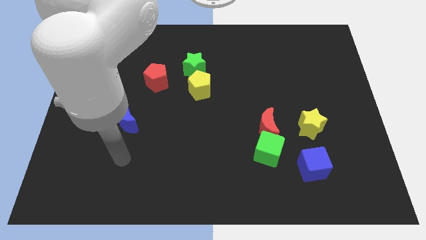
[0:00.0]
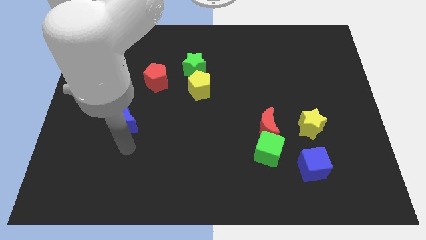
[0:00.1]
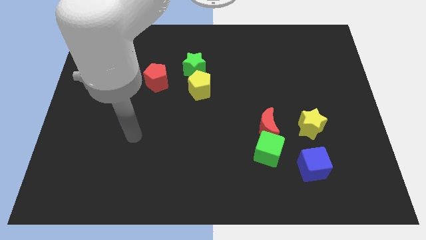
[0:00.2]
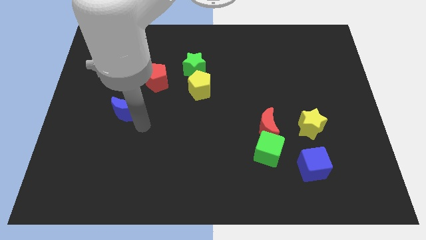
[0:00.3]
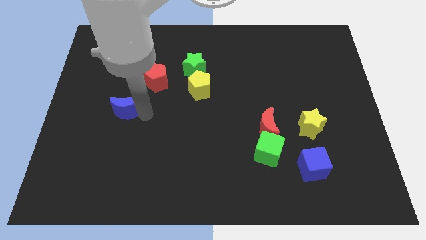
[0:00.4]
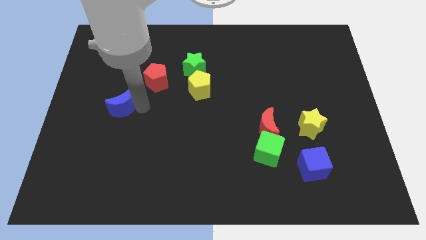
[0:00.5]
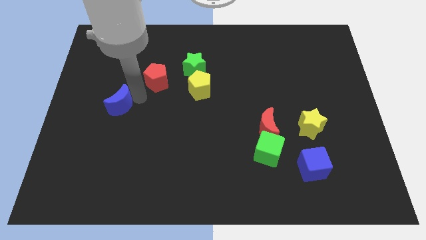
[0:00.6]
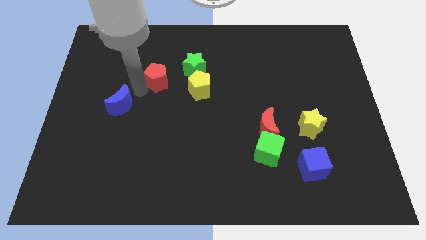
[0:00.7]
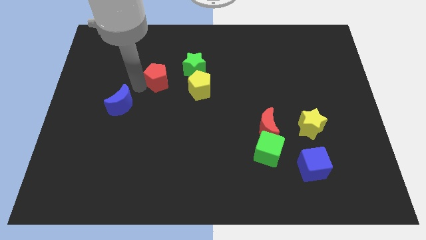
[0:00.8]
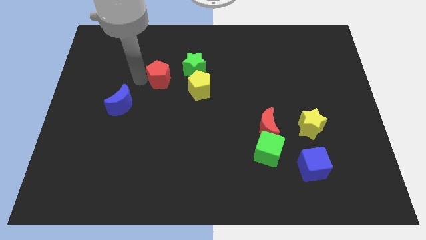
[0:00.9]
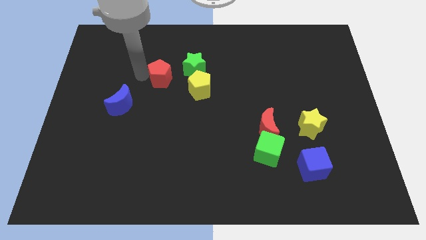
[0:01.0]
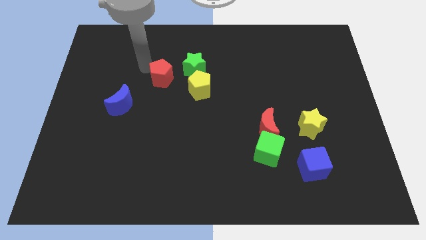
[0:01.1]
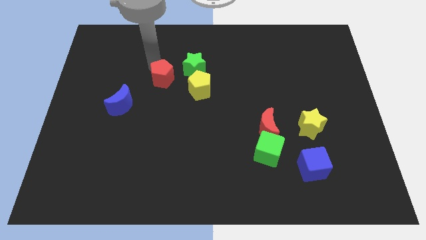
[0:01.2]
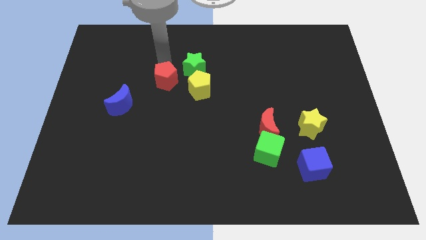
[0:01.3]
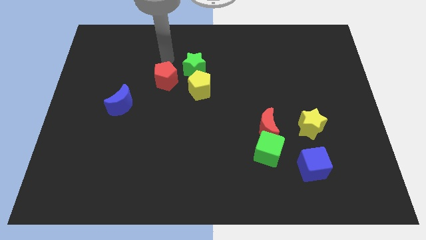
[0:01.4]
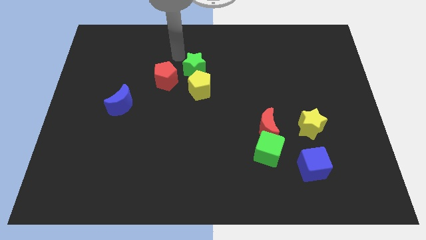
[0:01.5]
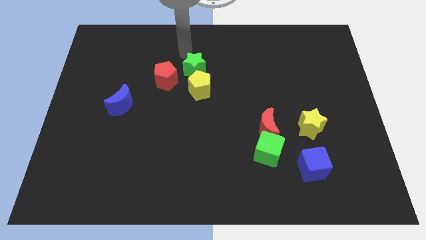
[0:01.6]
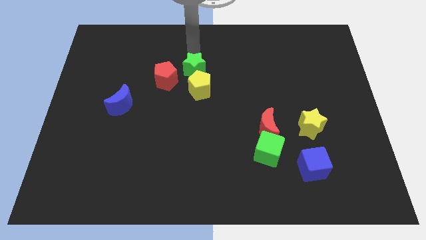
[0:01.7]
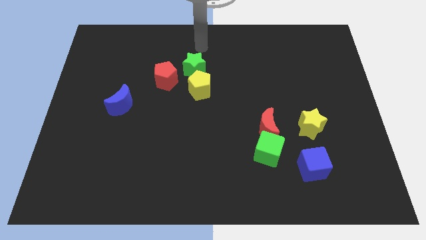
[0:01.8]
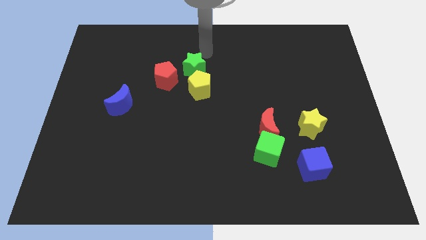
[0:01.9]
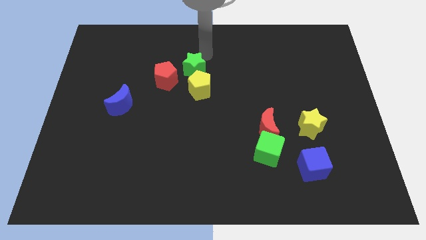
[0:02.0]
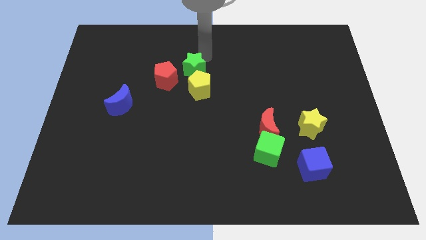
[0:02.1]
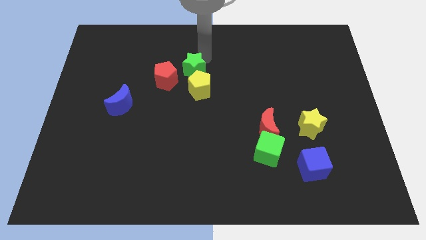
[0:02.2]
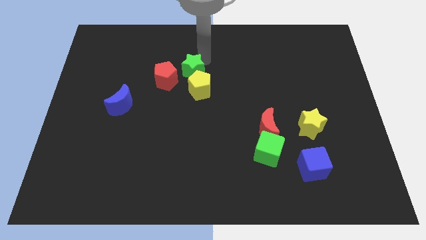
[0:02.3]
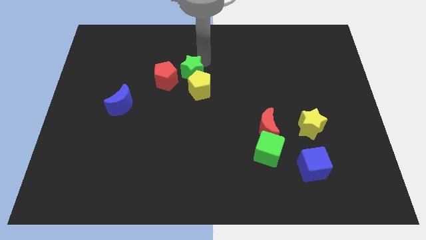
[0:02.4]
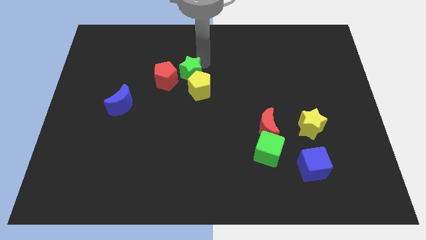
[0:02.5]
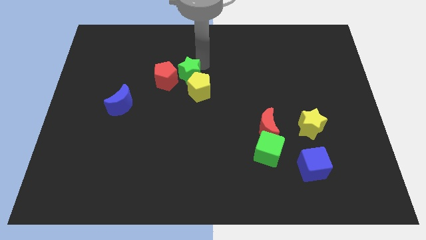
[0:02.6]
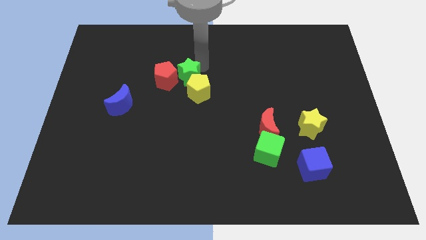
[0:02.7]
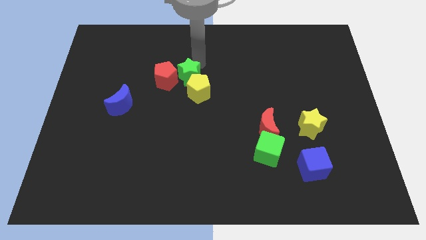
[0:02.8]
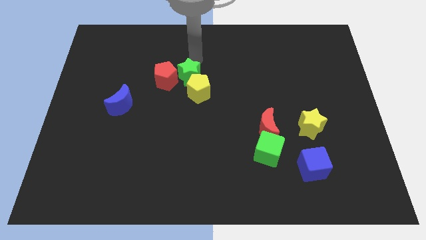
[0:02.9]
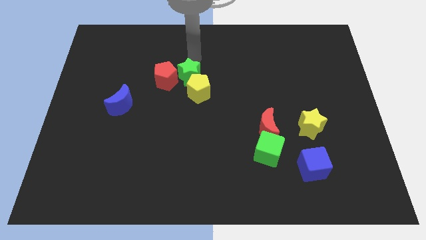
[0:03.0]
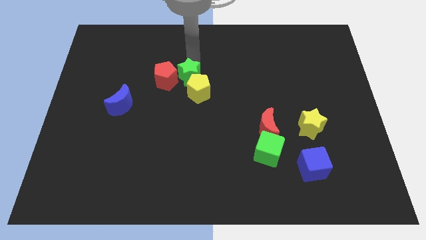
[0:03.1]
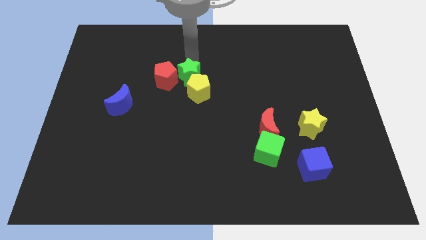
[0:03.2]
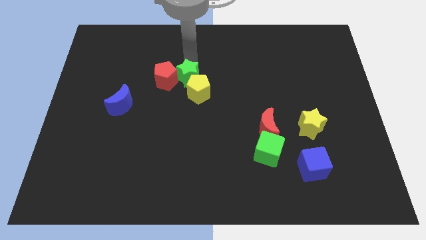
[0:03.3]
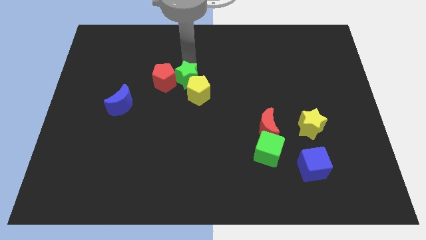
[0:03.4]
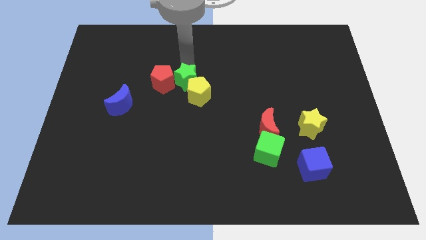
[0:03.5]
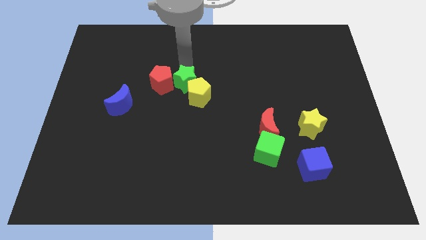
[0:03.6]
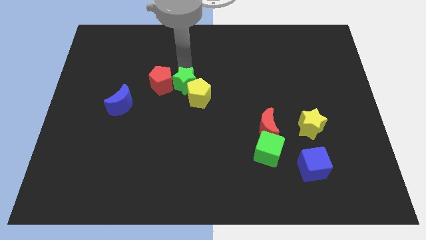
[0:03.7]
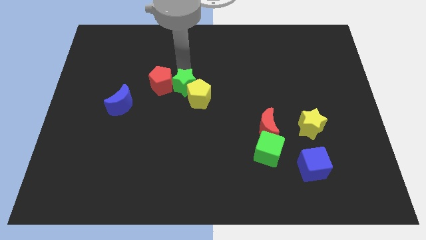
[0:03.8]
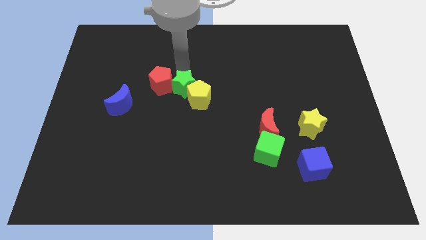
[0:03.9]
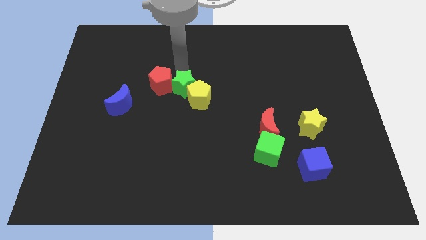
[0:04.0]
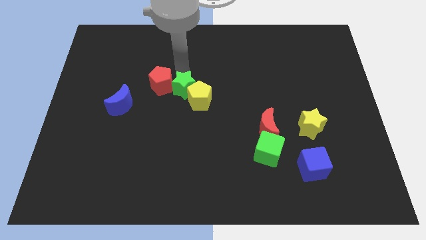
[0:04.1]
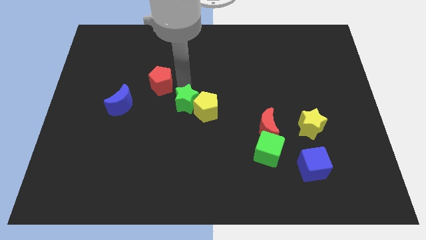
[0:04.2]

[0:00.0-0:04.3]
move the green star slightly down

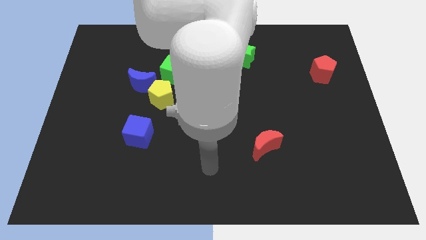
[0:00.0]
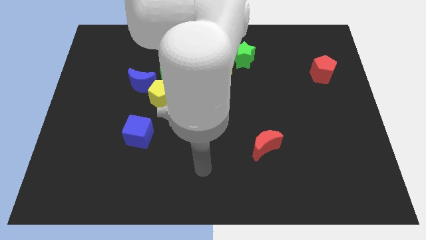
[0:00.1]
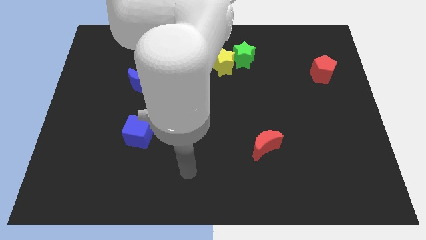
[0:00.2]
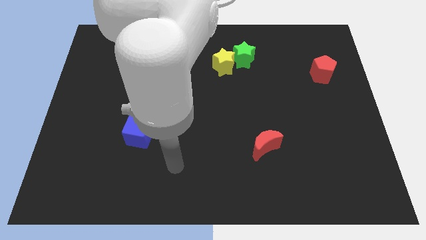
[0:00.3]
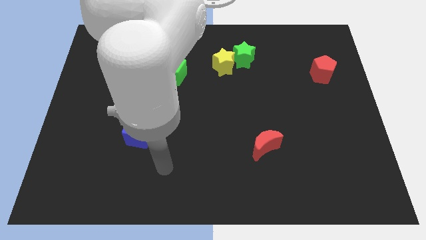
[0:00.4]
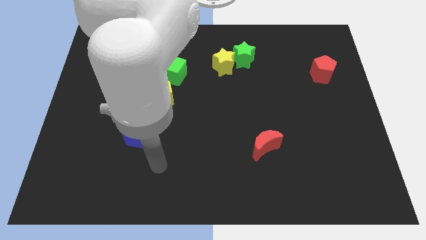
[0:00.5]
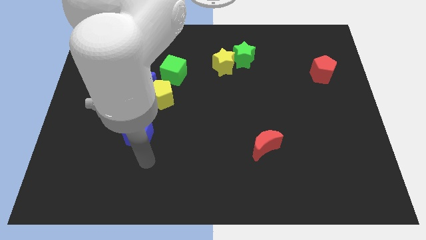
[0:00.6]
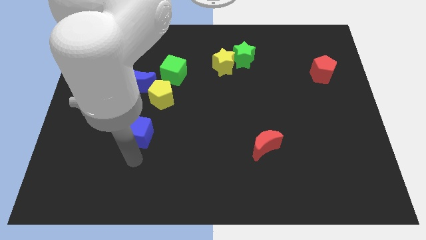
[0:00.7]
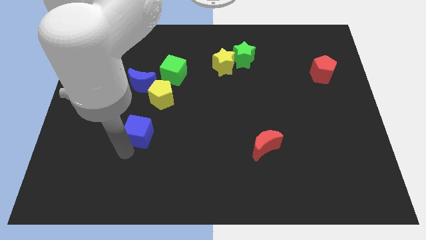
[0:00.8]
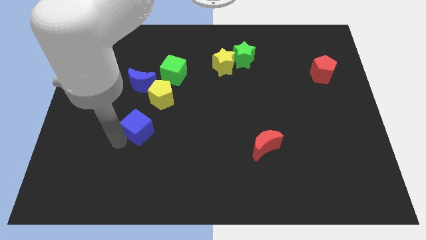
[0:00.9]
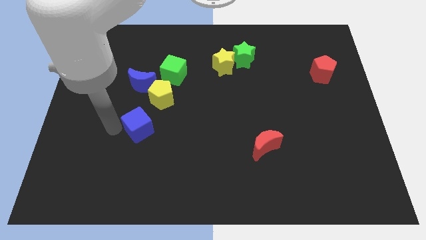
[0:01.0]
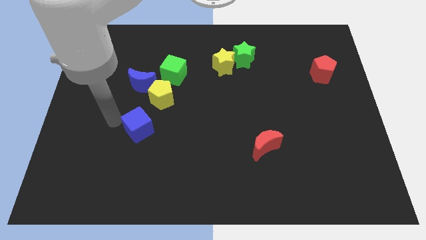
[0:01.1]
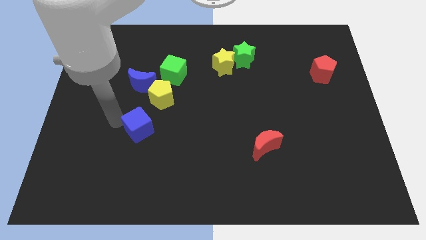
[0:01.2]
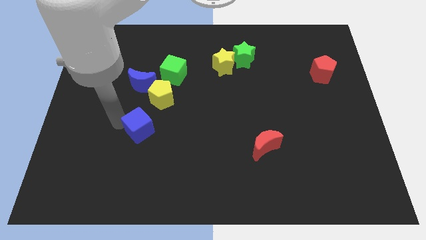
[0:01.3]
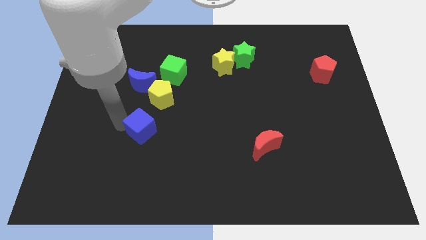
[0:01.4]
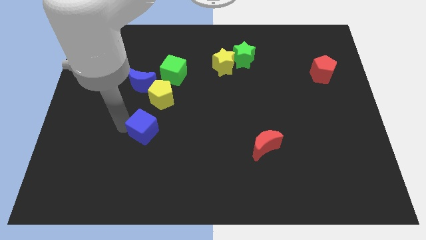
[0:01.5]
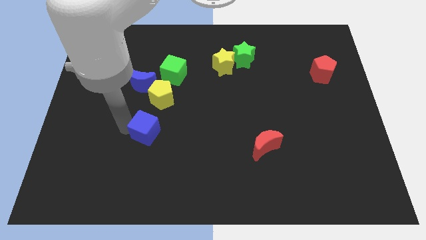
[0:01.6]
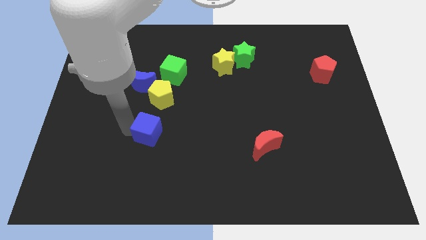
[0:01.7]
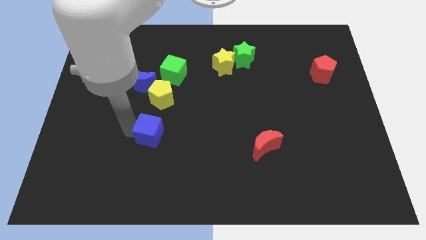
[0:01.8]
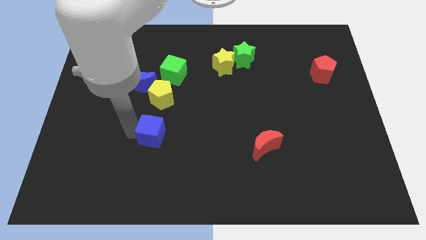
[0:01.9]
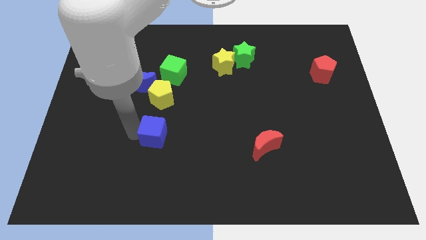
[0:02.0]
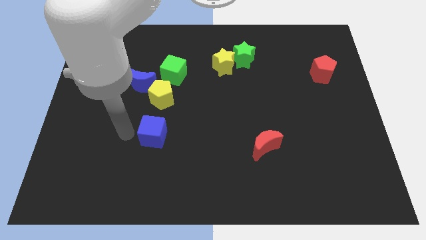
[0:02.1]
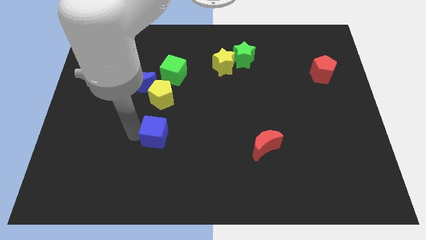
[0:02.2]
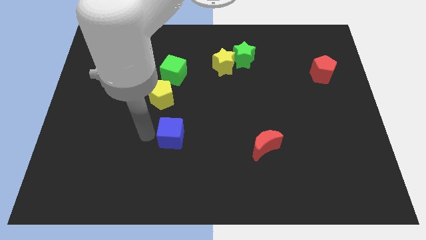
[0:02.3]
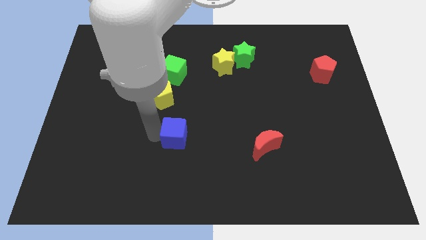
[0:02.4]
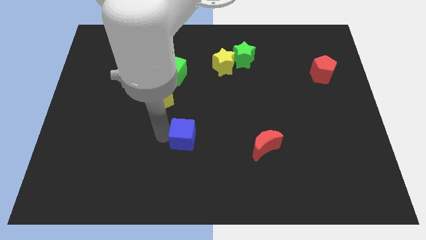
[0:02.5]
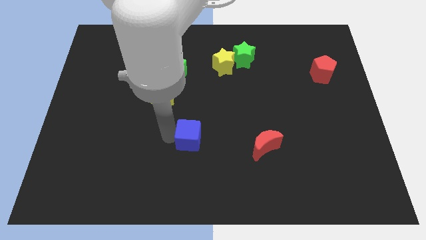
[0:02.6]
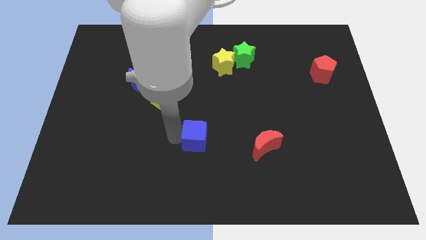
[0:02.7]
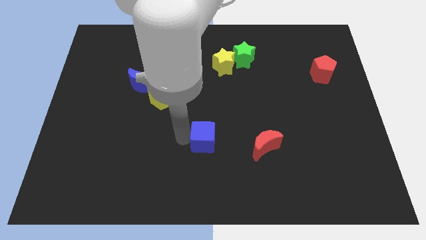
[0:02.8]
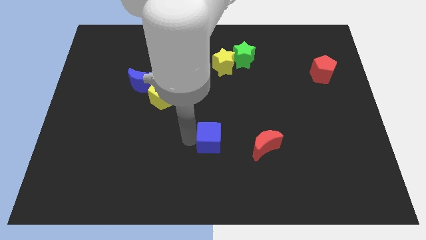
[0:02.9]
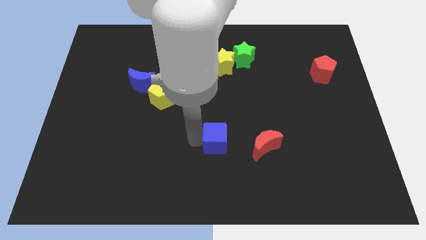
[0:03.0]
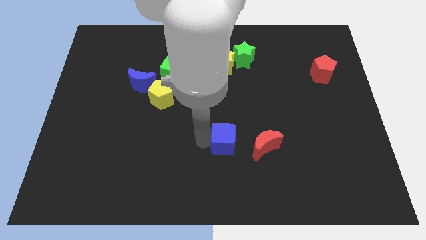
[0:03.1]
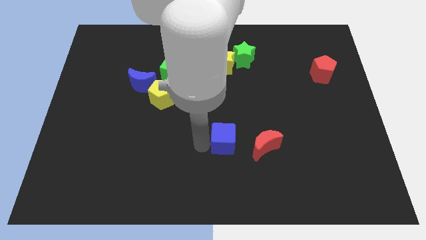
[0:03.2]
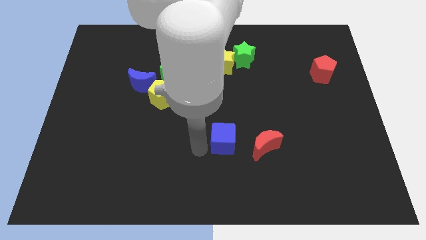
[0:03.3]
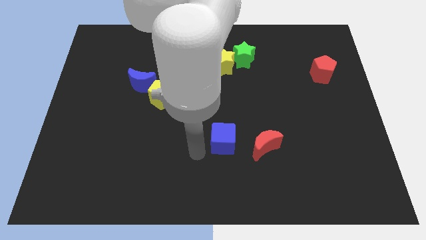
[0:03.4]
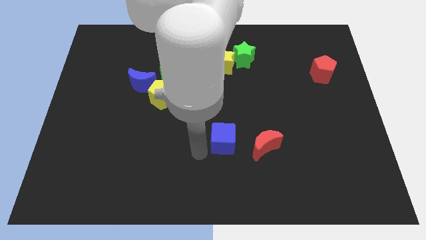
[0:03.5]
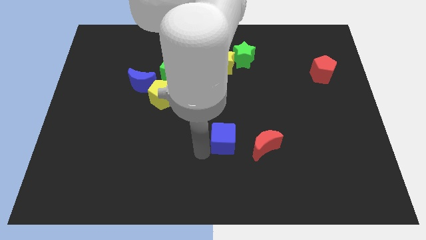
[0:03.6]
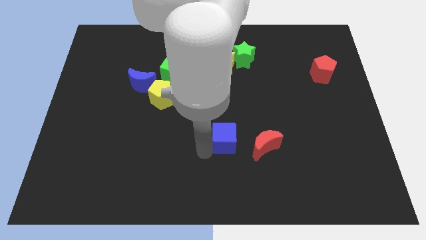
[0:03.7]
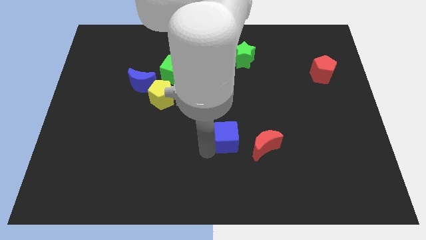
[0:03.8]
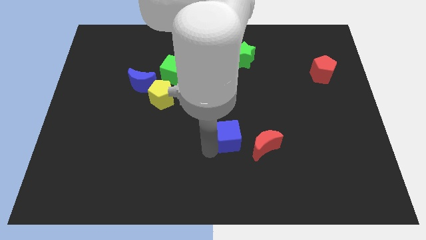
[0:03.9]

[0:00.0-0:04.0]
move the blue cube to the right
